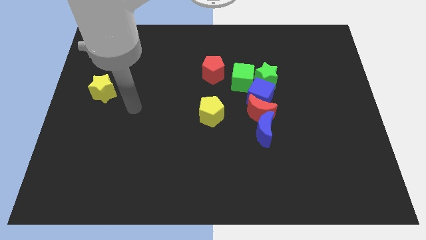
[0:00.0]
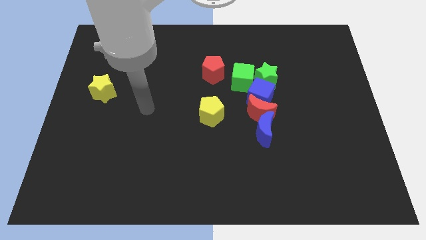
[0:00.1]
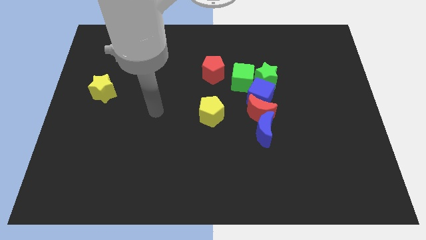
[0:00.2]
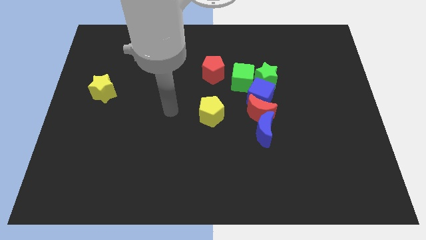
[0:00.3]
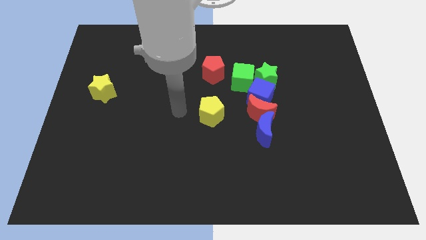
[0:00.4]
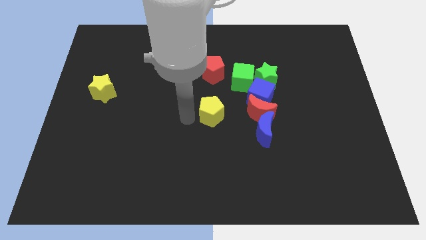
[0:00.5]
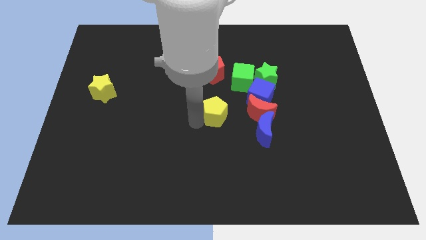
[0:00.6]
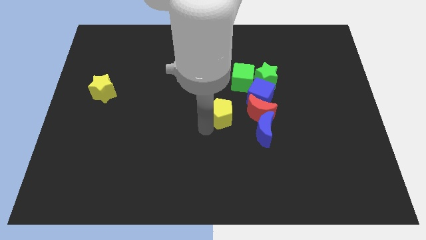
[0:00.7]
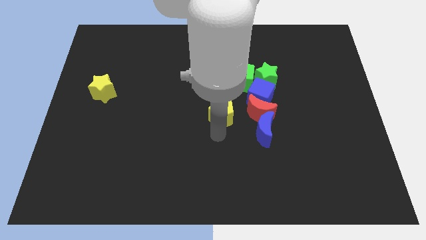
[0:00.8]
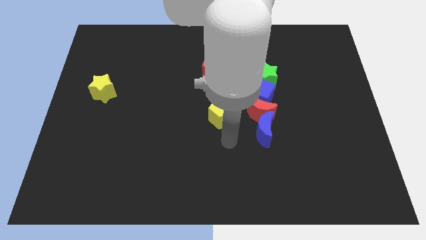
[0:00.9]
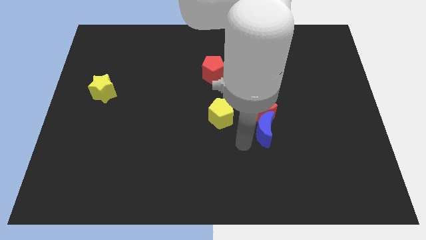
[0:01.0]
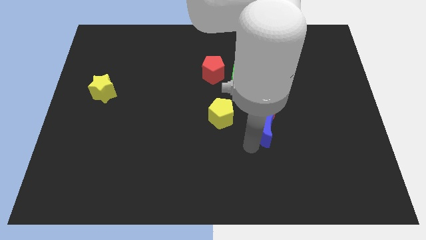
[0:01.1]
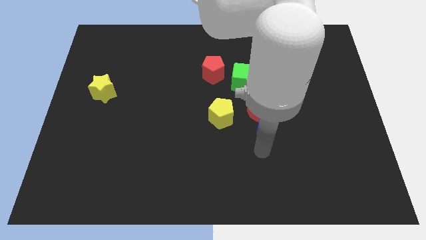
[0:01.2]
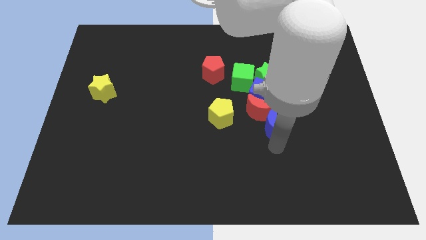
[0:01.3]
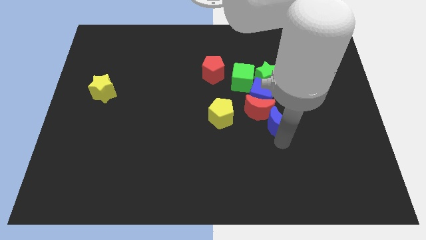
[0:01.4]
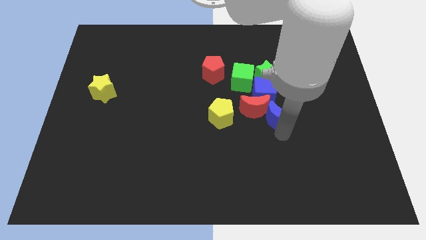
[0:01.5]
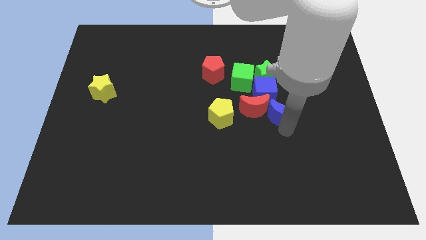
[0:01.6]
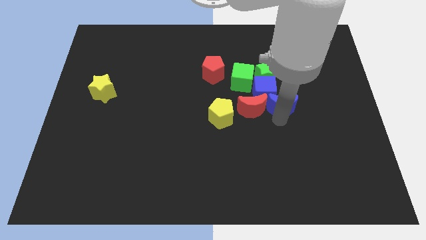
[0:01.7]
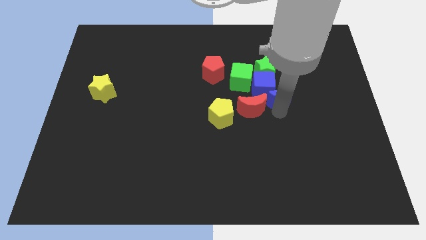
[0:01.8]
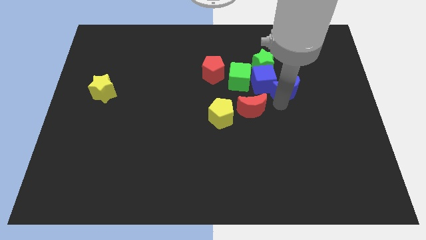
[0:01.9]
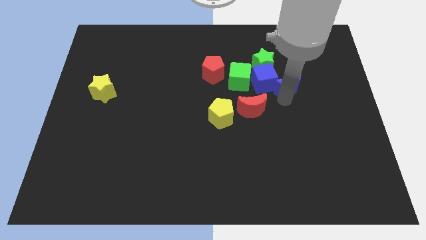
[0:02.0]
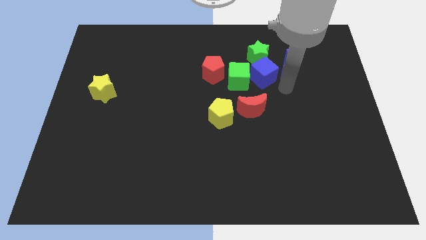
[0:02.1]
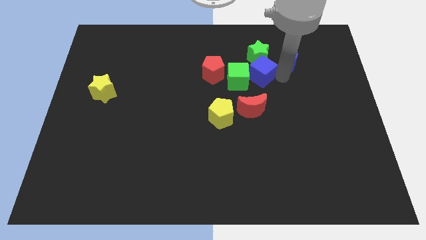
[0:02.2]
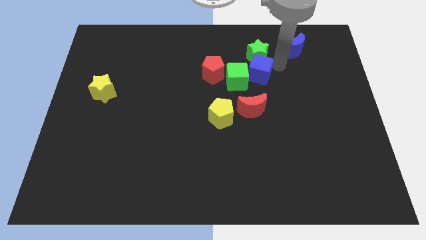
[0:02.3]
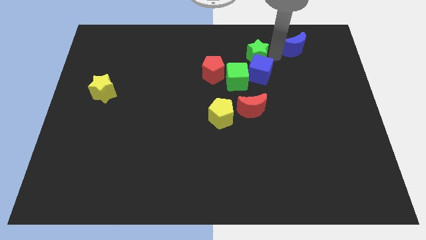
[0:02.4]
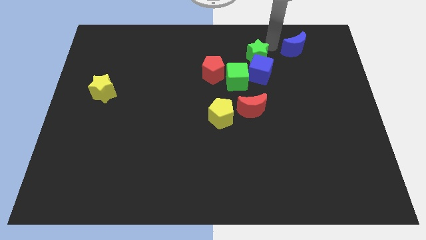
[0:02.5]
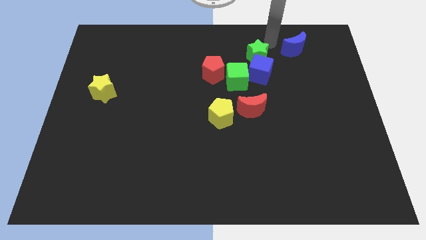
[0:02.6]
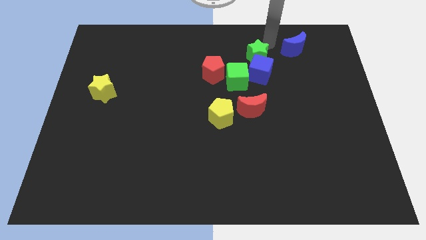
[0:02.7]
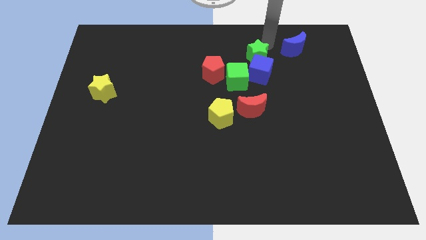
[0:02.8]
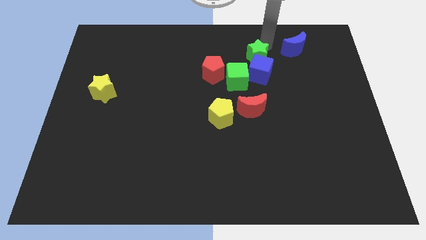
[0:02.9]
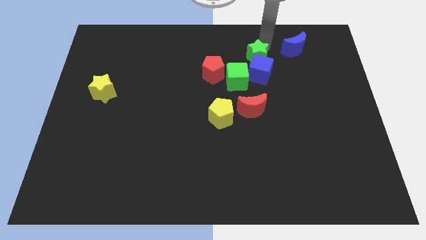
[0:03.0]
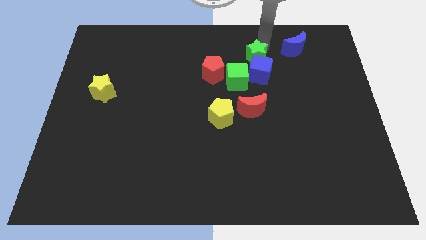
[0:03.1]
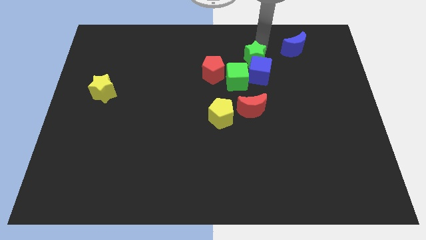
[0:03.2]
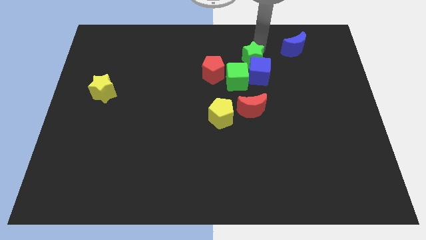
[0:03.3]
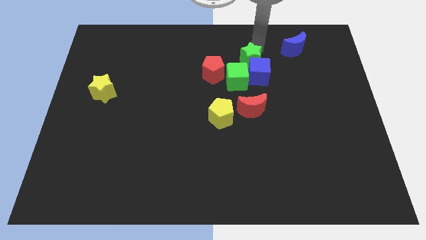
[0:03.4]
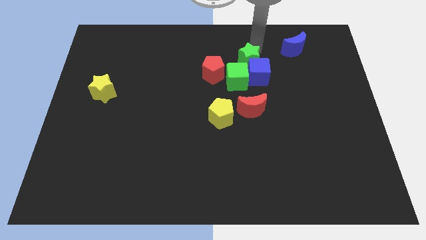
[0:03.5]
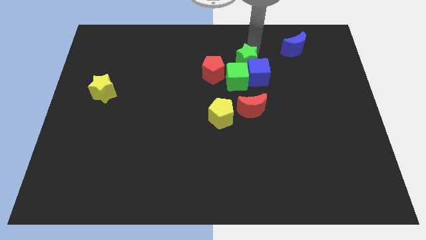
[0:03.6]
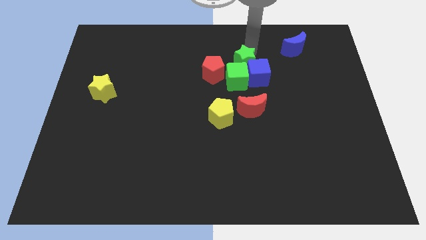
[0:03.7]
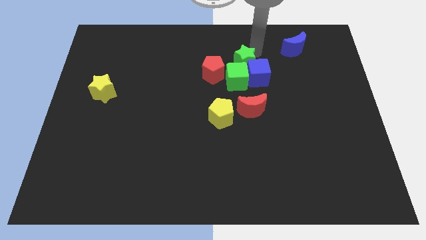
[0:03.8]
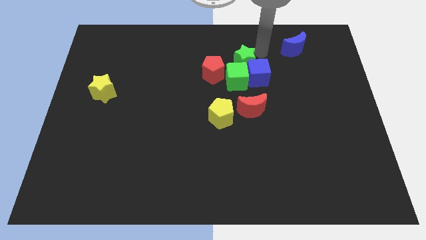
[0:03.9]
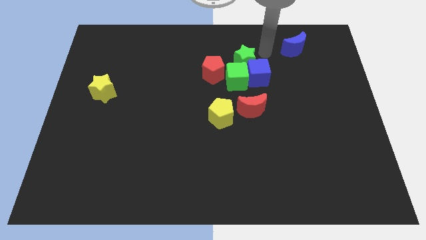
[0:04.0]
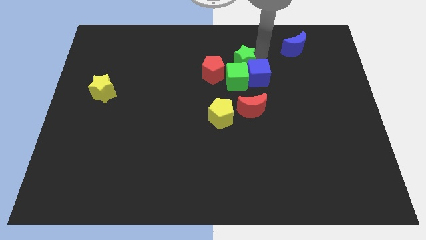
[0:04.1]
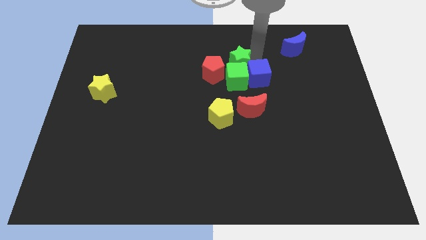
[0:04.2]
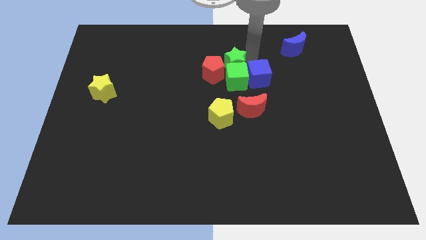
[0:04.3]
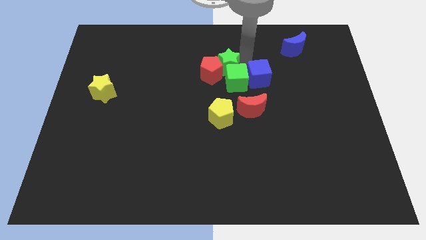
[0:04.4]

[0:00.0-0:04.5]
put the green star towards the red pentagon

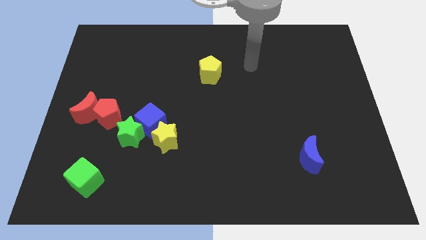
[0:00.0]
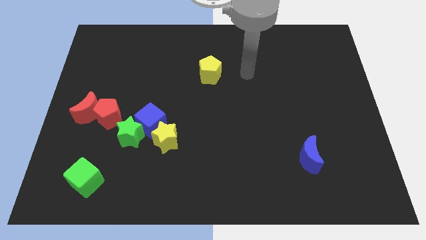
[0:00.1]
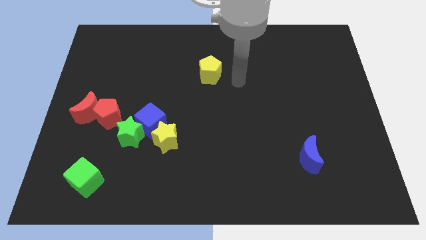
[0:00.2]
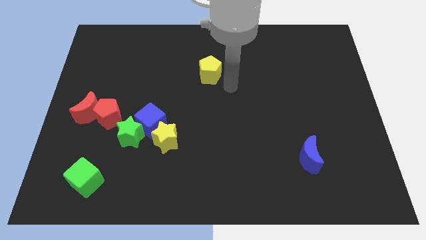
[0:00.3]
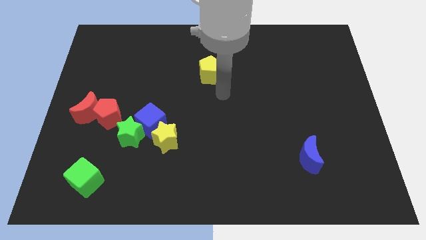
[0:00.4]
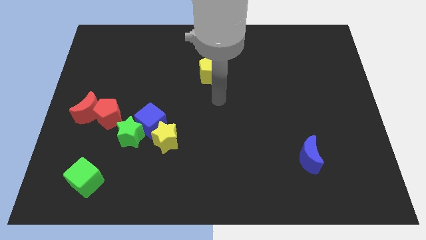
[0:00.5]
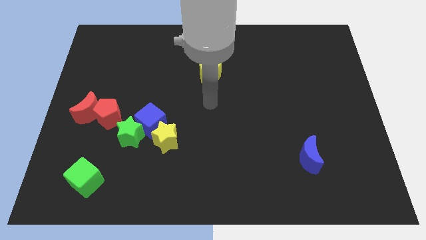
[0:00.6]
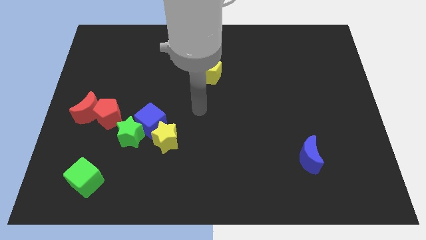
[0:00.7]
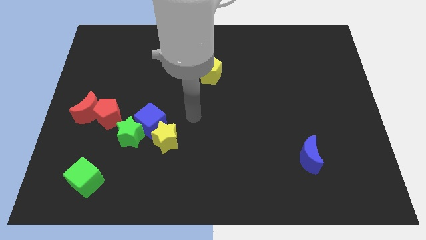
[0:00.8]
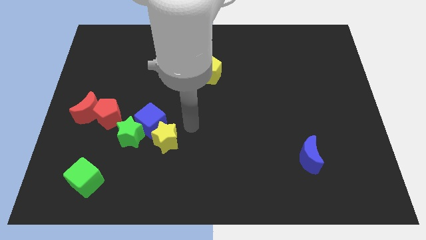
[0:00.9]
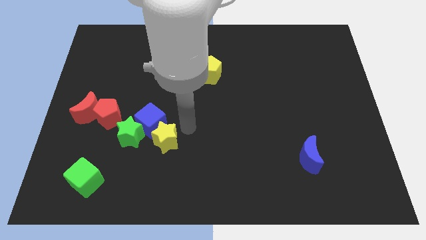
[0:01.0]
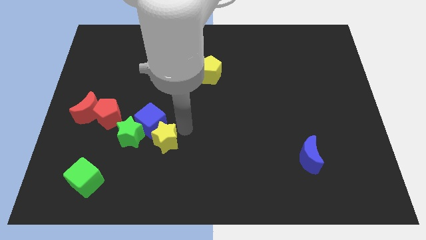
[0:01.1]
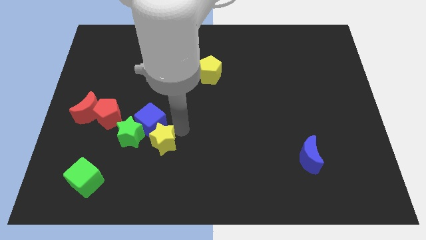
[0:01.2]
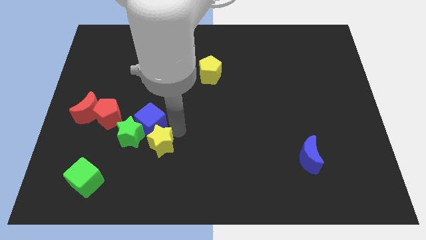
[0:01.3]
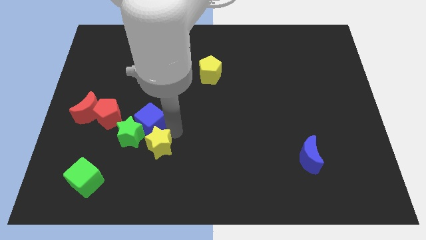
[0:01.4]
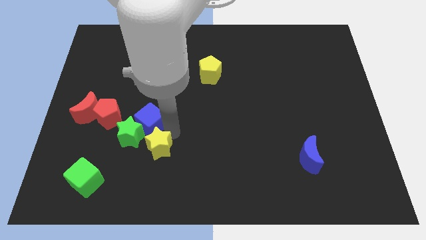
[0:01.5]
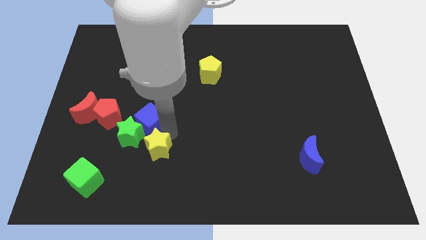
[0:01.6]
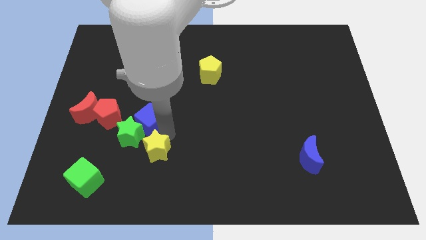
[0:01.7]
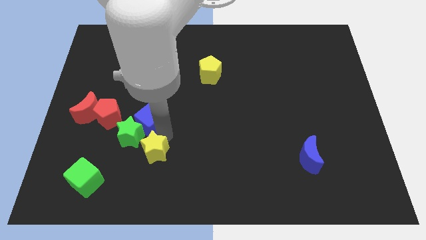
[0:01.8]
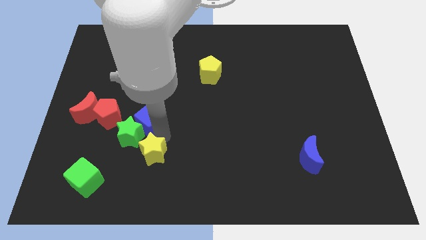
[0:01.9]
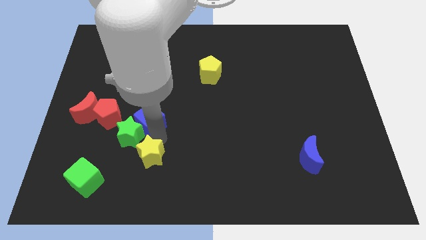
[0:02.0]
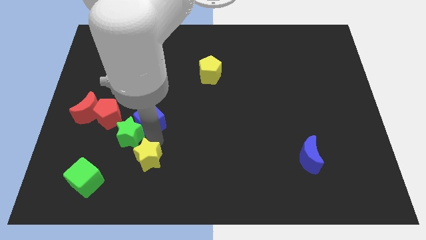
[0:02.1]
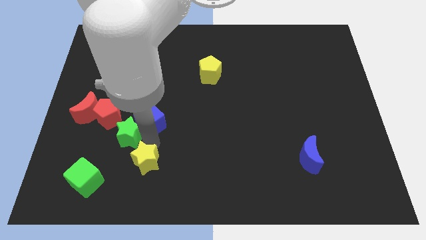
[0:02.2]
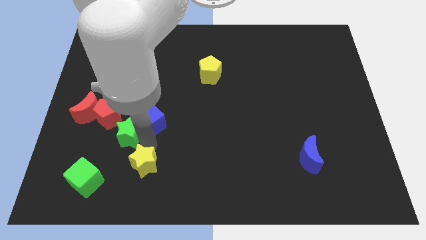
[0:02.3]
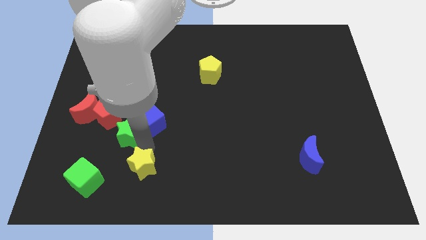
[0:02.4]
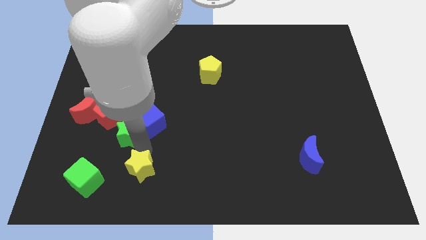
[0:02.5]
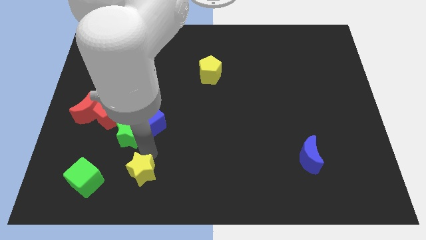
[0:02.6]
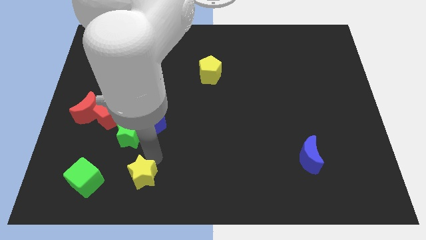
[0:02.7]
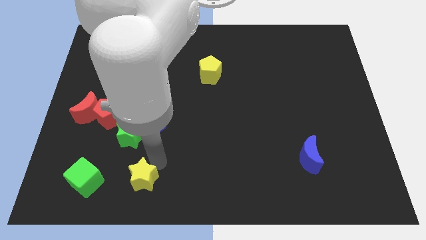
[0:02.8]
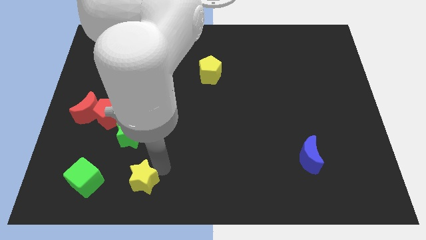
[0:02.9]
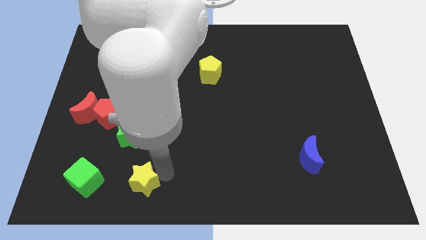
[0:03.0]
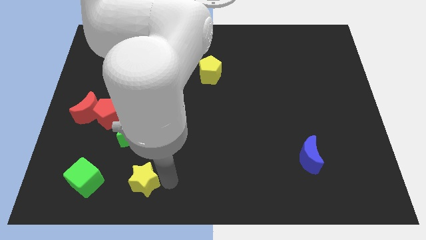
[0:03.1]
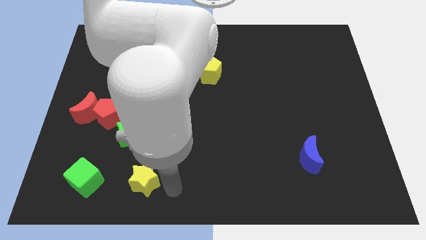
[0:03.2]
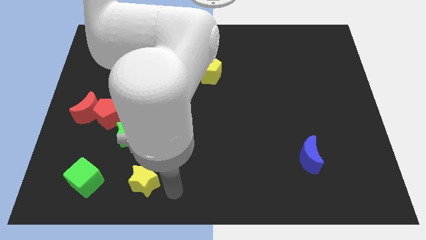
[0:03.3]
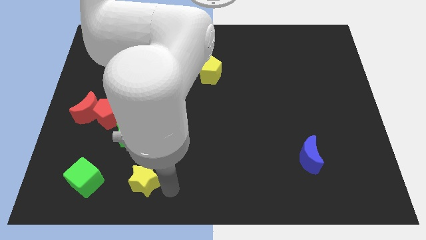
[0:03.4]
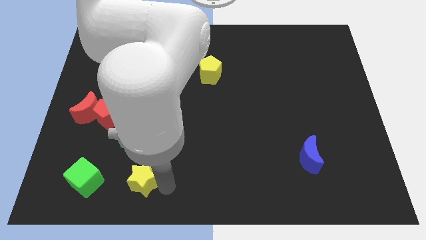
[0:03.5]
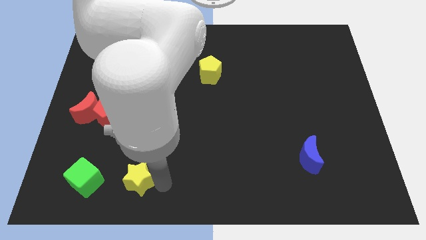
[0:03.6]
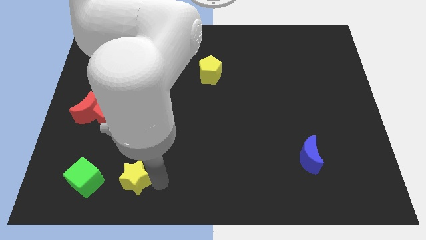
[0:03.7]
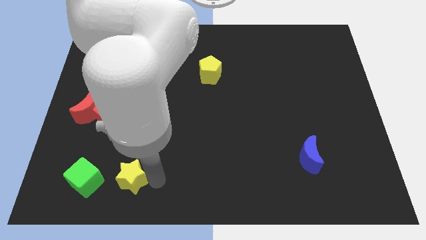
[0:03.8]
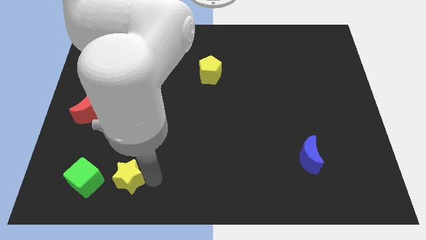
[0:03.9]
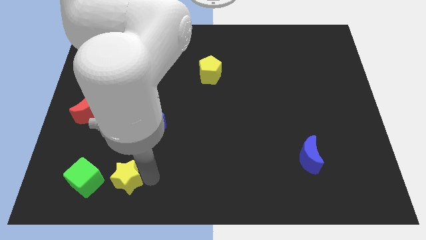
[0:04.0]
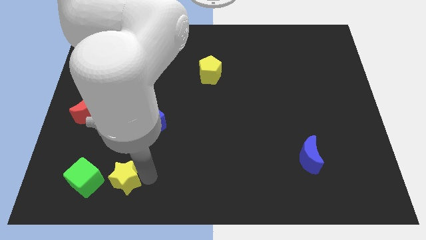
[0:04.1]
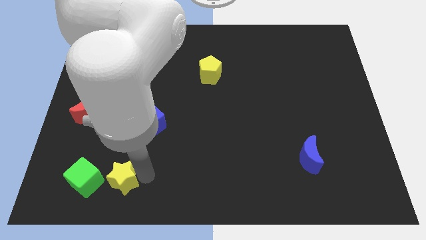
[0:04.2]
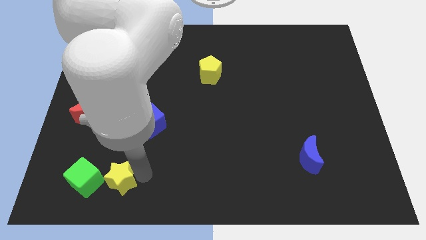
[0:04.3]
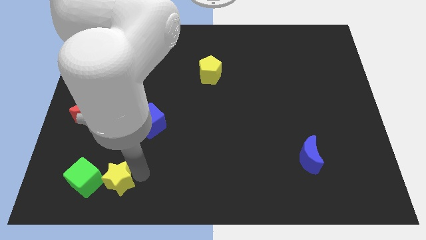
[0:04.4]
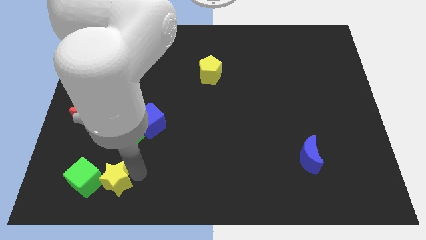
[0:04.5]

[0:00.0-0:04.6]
put the yellow star next to the green cube
